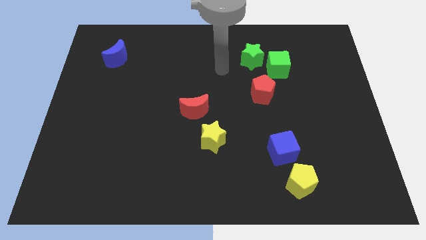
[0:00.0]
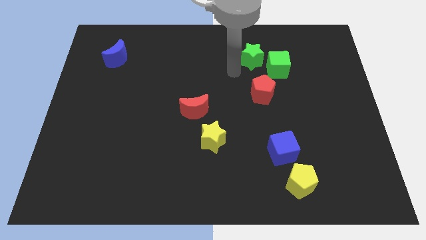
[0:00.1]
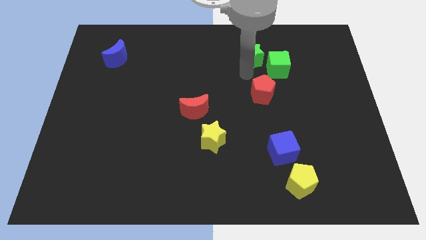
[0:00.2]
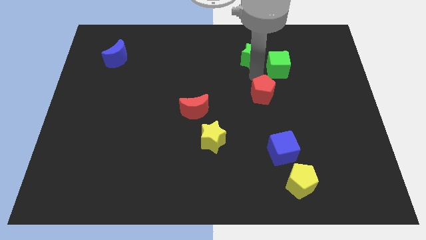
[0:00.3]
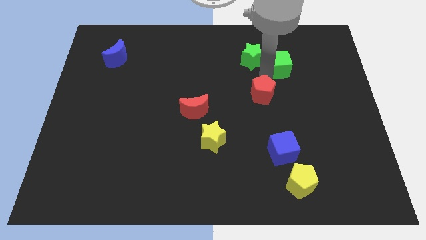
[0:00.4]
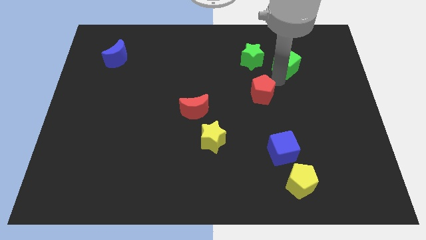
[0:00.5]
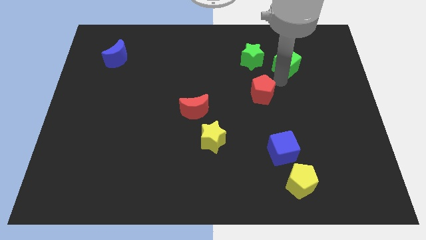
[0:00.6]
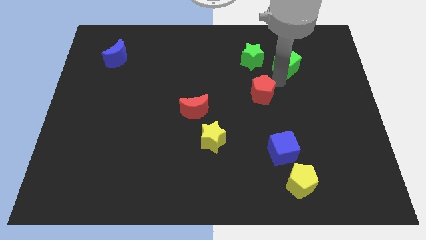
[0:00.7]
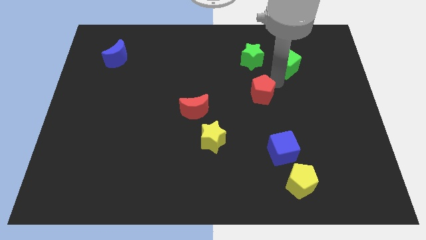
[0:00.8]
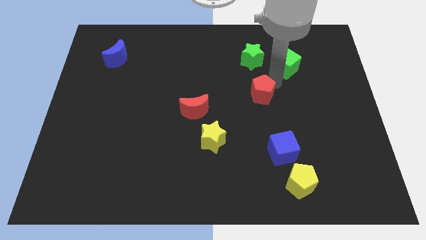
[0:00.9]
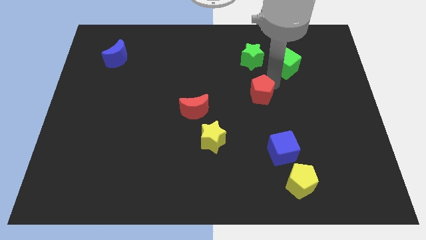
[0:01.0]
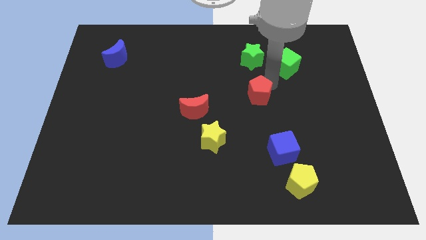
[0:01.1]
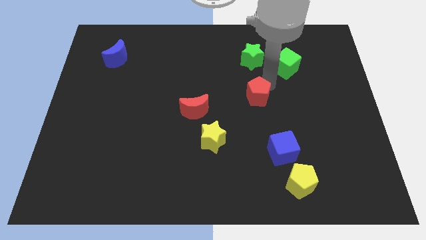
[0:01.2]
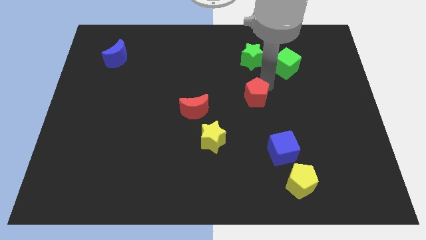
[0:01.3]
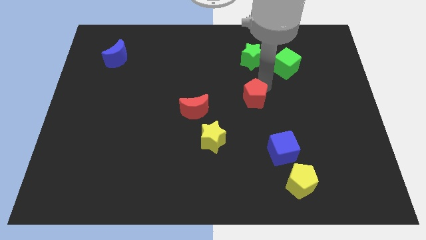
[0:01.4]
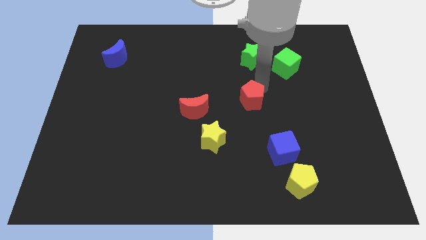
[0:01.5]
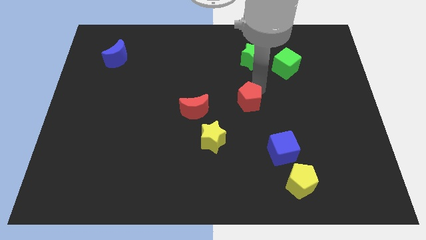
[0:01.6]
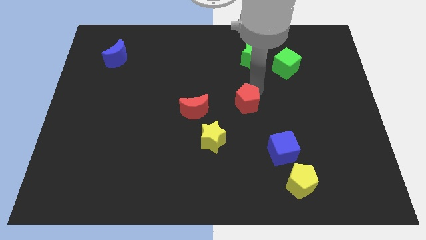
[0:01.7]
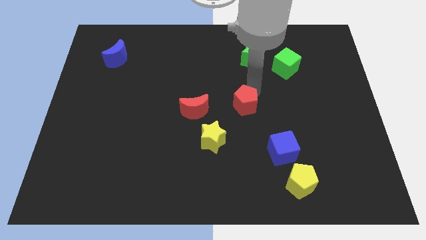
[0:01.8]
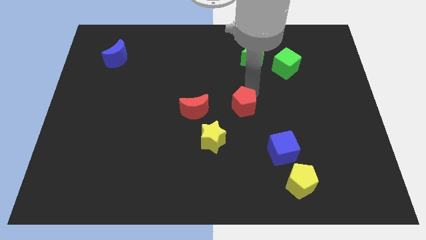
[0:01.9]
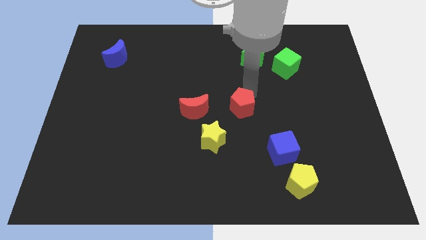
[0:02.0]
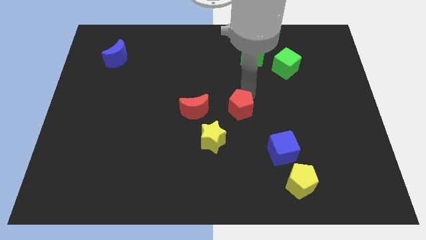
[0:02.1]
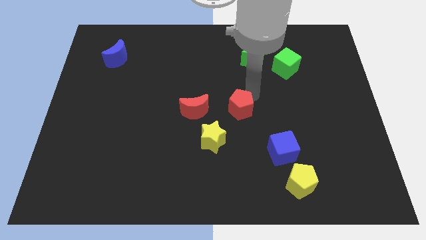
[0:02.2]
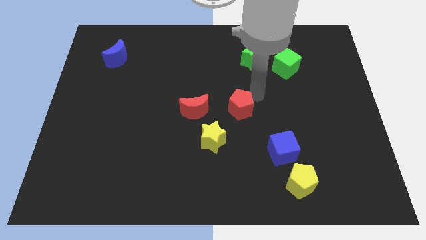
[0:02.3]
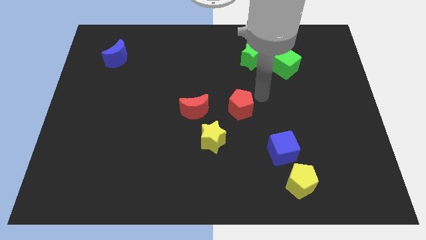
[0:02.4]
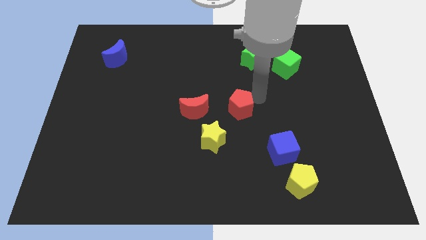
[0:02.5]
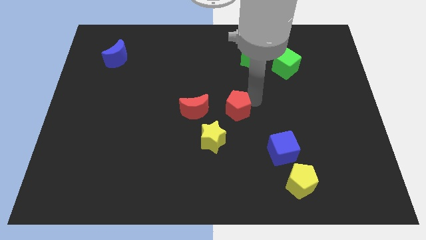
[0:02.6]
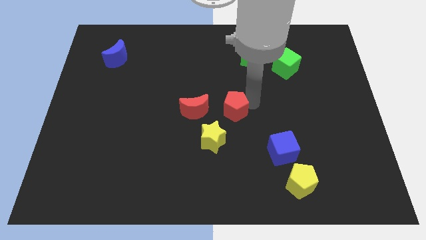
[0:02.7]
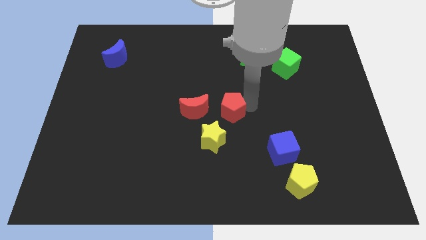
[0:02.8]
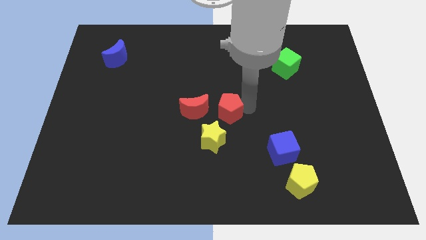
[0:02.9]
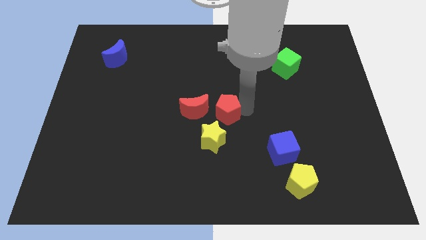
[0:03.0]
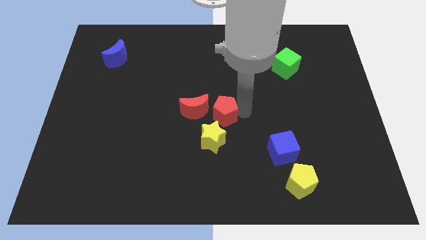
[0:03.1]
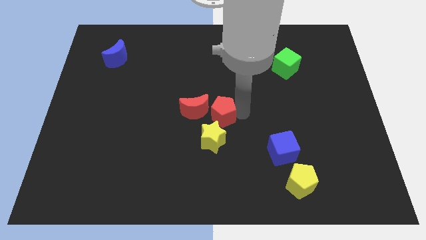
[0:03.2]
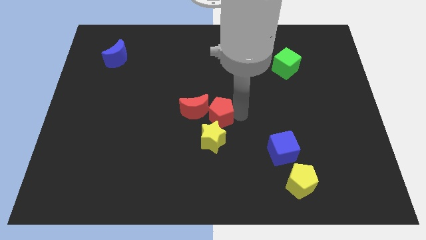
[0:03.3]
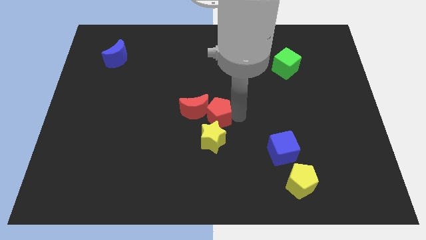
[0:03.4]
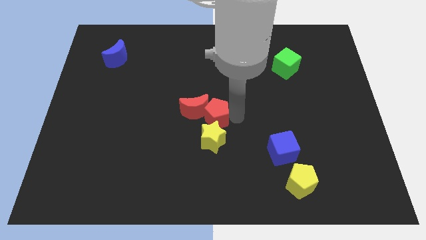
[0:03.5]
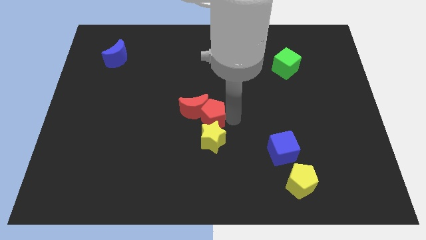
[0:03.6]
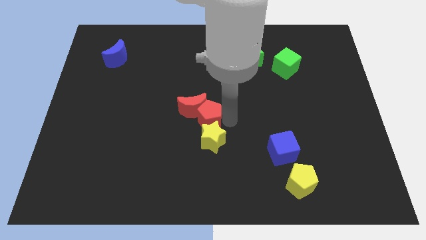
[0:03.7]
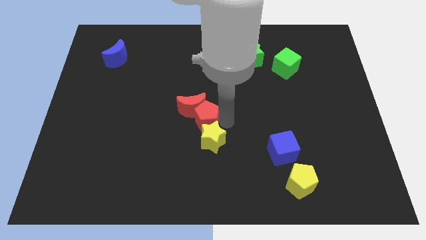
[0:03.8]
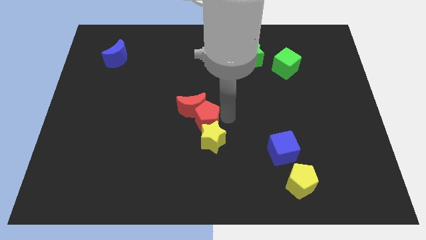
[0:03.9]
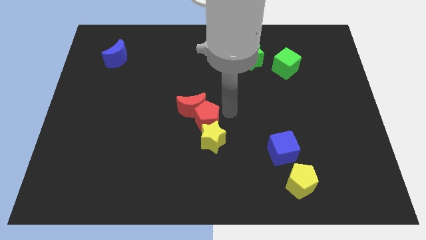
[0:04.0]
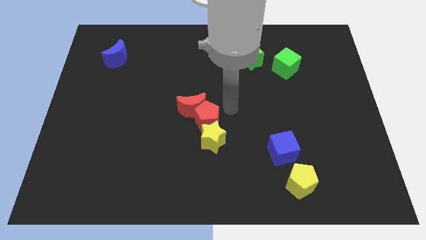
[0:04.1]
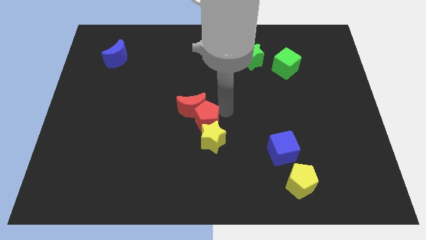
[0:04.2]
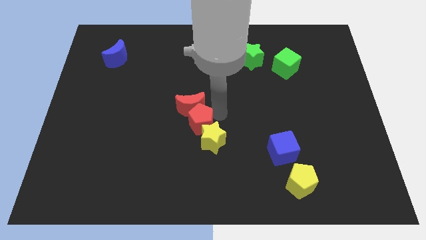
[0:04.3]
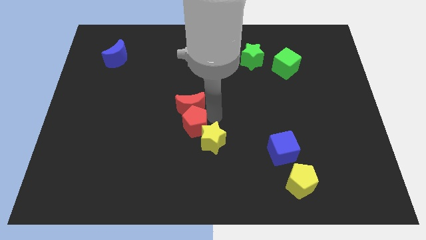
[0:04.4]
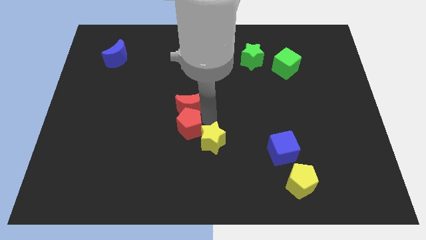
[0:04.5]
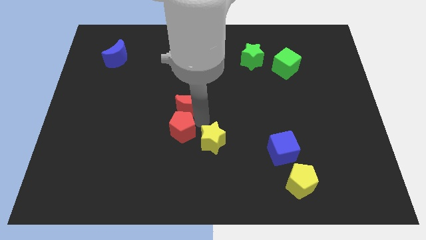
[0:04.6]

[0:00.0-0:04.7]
slide the red pentagon down and then left

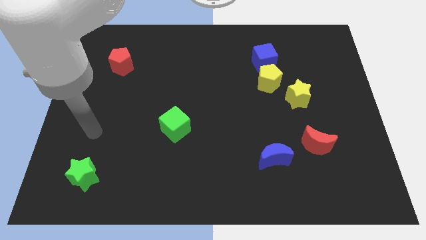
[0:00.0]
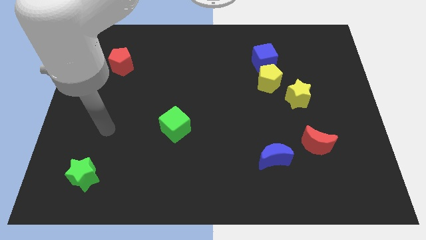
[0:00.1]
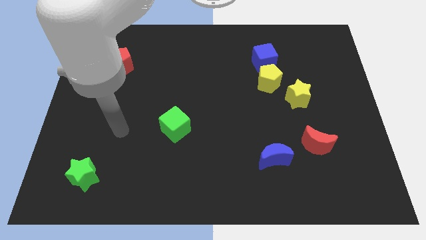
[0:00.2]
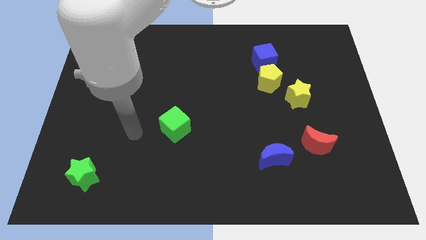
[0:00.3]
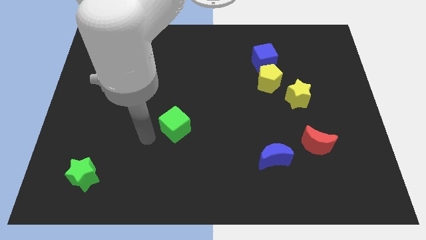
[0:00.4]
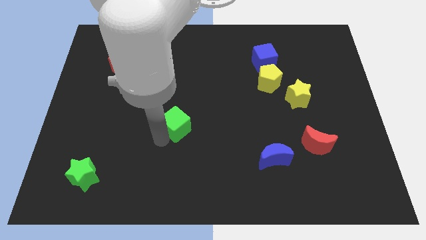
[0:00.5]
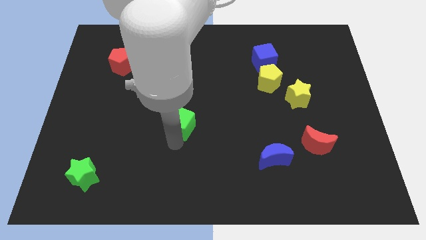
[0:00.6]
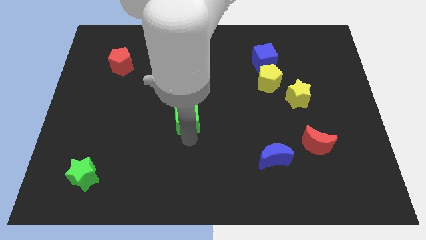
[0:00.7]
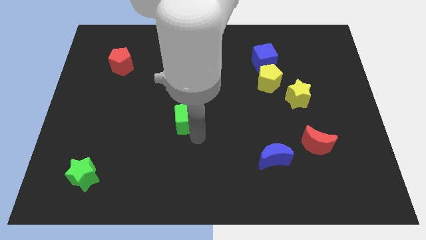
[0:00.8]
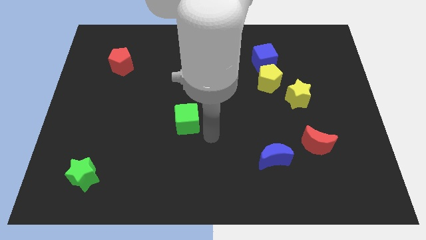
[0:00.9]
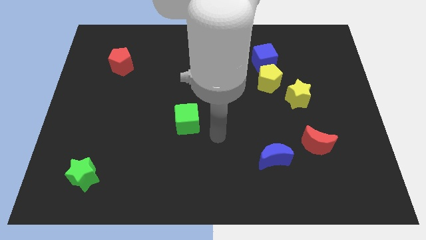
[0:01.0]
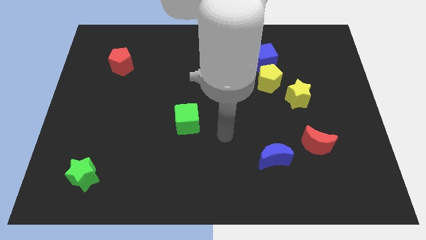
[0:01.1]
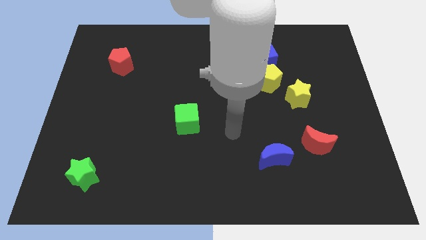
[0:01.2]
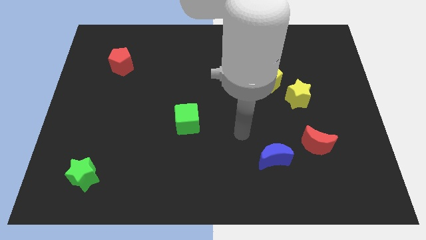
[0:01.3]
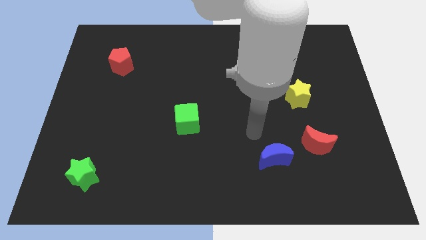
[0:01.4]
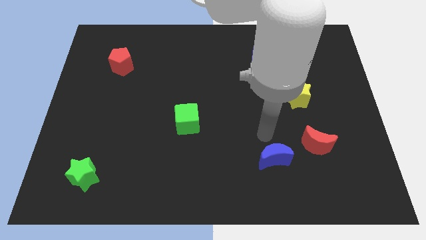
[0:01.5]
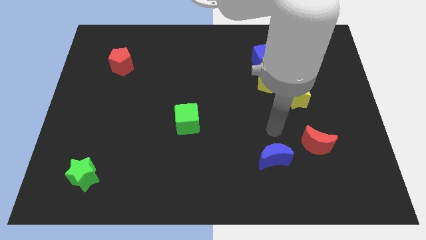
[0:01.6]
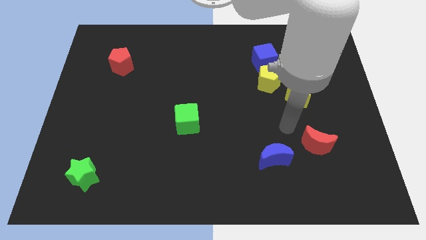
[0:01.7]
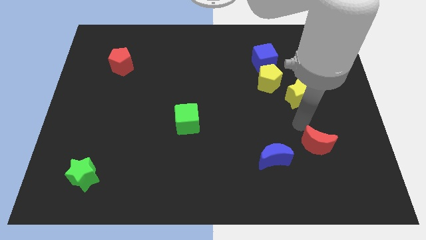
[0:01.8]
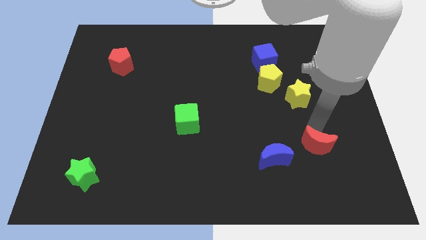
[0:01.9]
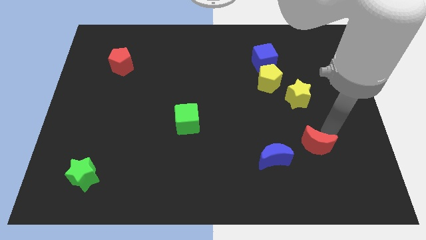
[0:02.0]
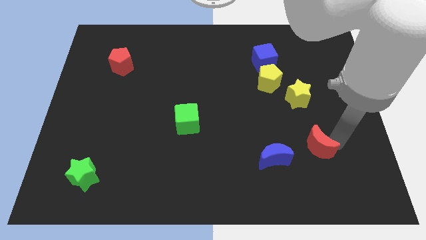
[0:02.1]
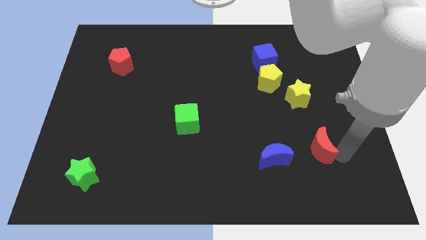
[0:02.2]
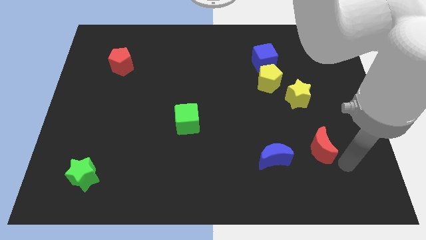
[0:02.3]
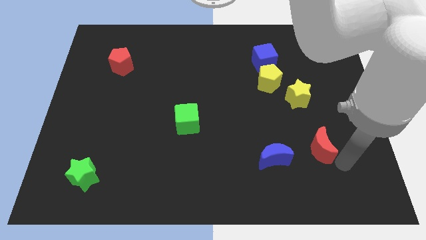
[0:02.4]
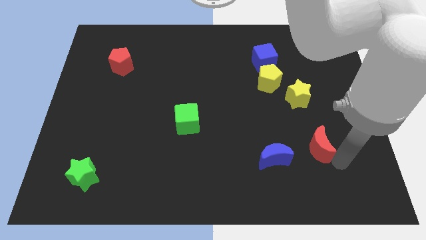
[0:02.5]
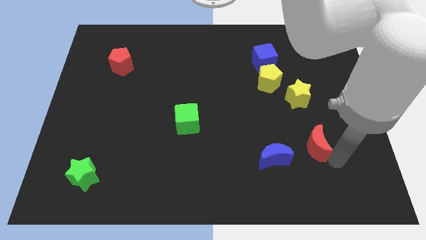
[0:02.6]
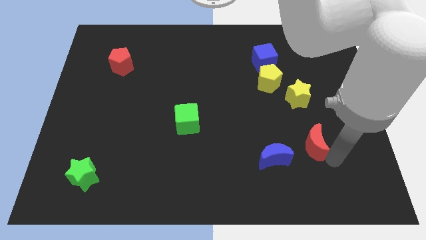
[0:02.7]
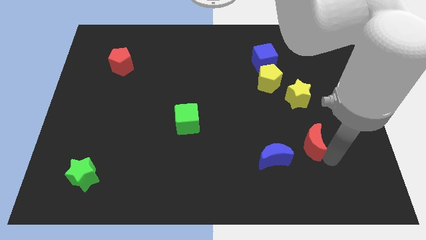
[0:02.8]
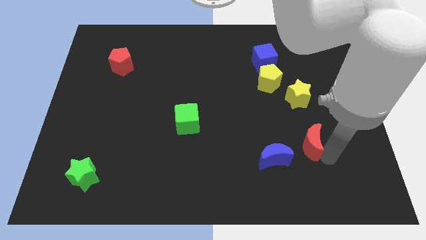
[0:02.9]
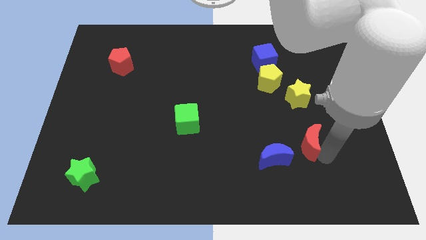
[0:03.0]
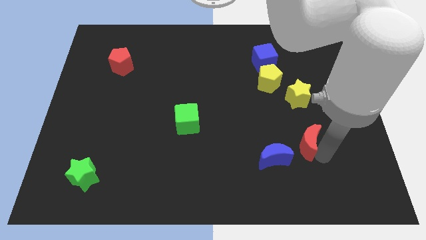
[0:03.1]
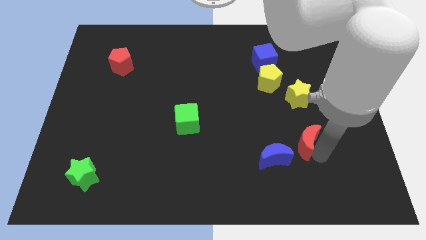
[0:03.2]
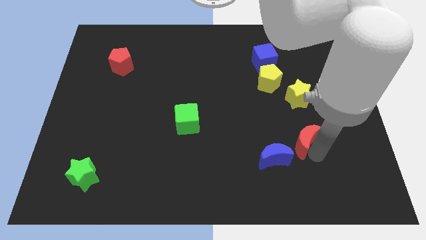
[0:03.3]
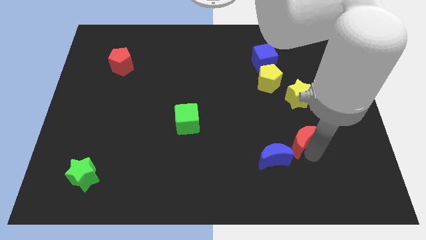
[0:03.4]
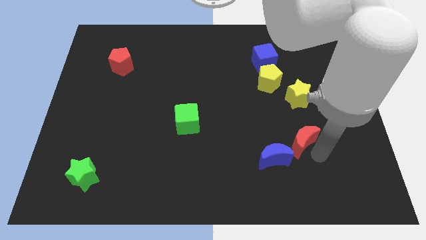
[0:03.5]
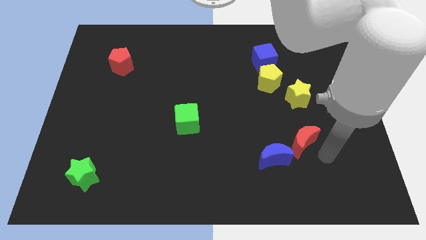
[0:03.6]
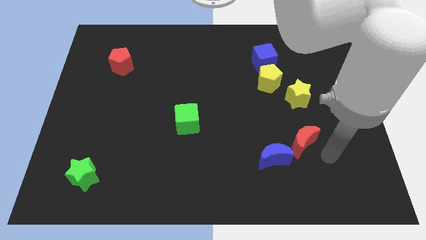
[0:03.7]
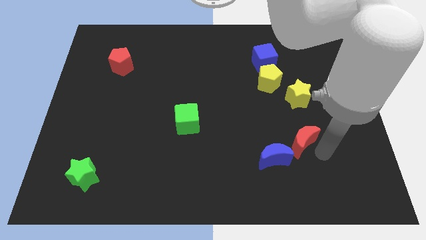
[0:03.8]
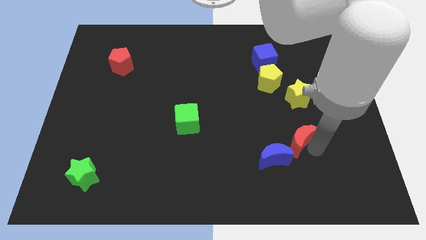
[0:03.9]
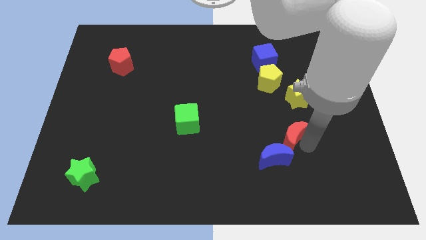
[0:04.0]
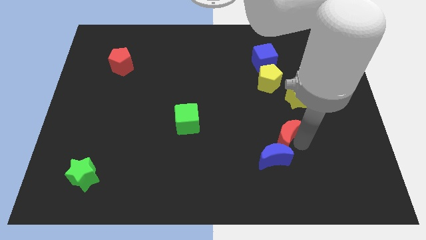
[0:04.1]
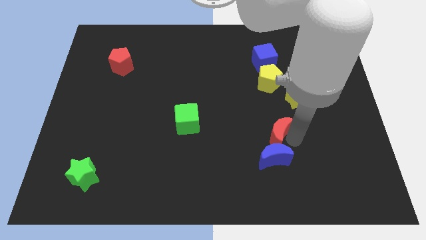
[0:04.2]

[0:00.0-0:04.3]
slightly move the red moon to the left
